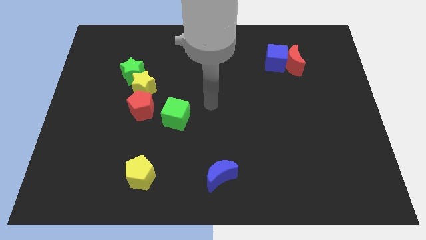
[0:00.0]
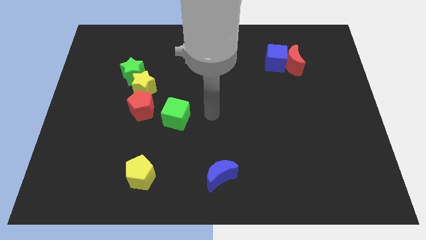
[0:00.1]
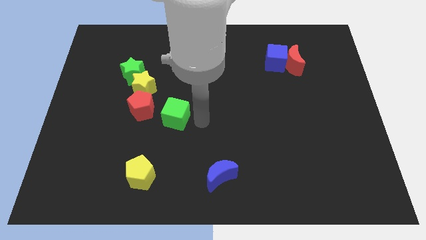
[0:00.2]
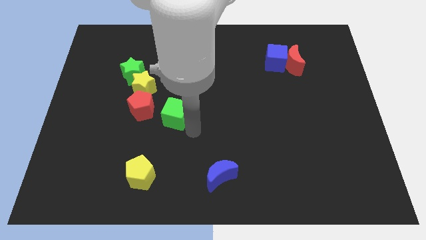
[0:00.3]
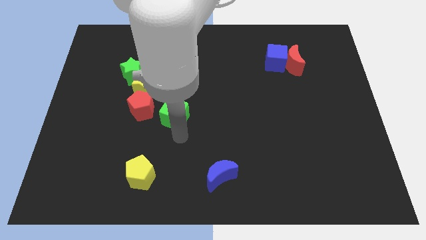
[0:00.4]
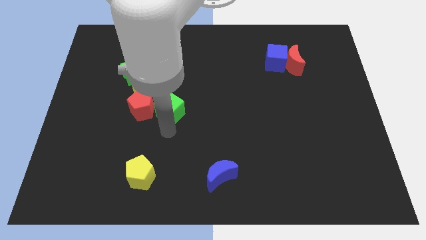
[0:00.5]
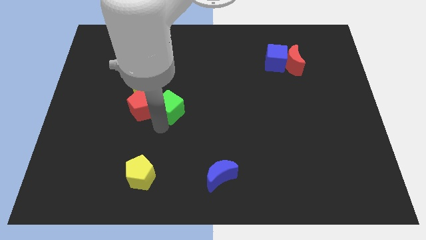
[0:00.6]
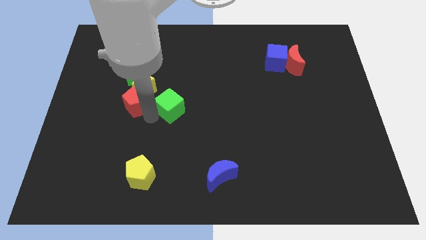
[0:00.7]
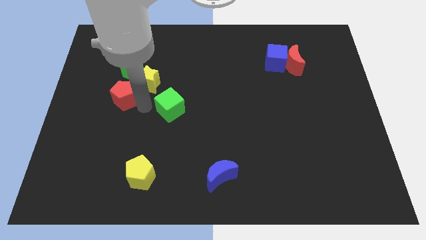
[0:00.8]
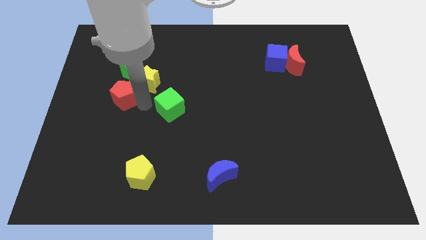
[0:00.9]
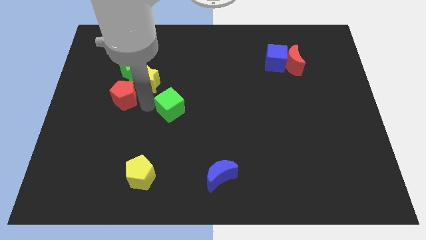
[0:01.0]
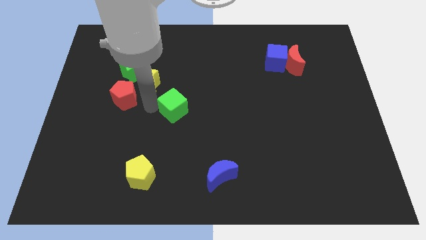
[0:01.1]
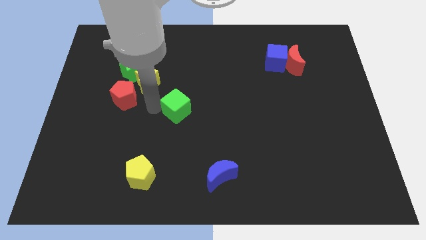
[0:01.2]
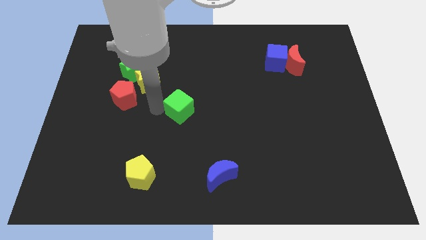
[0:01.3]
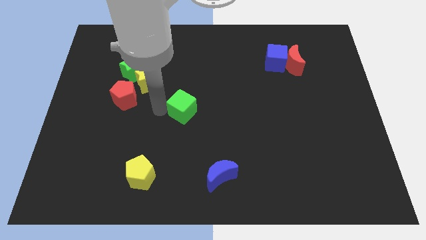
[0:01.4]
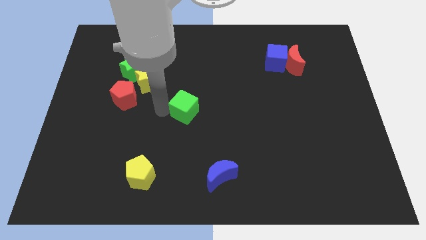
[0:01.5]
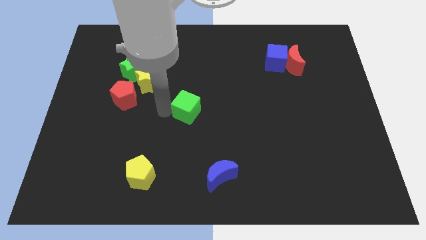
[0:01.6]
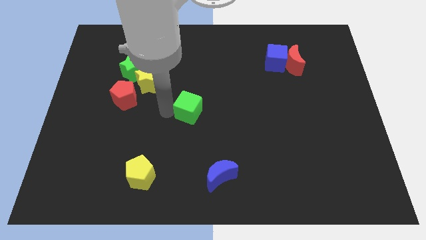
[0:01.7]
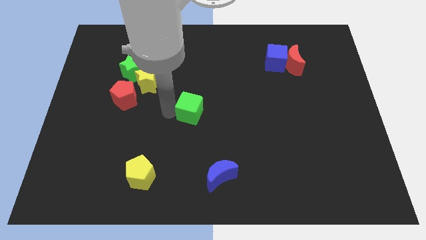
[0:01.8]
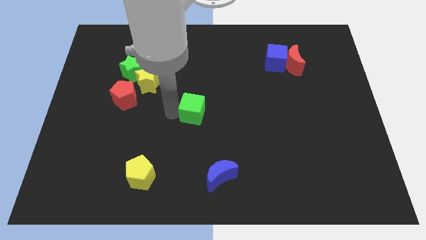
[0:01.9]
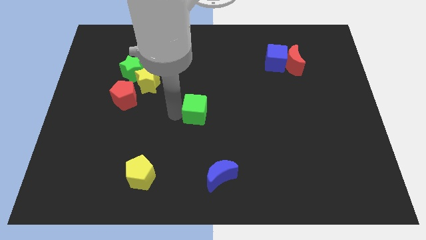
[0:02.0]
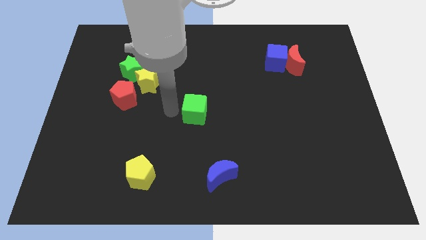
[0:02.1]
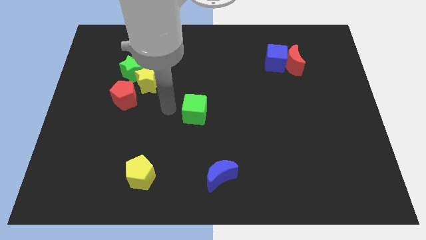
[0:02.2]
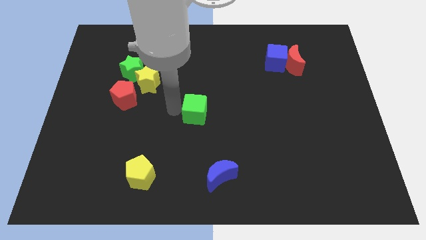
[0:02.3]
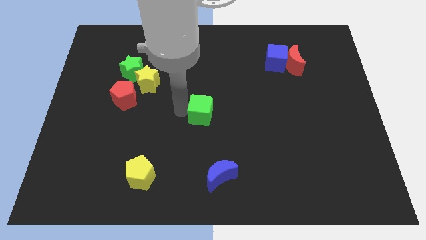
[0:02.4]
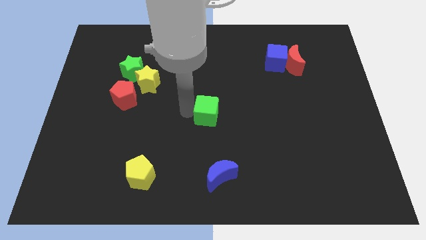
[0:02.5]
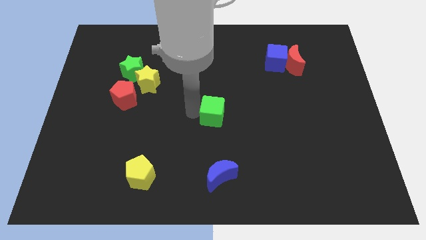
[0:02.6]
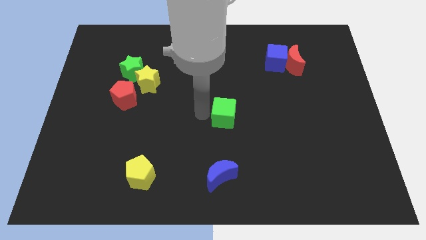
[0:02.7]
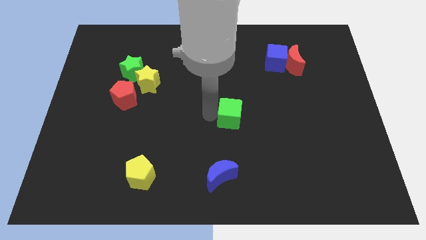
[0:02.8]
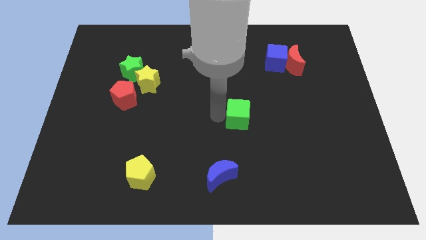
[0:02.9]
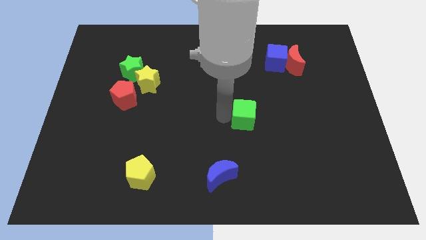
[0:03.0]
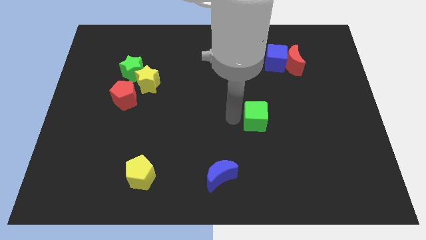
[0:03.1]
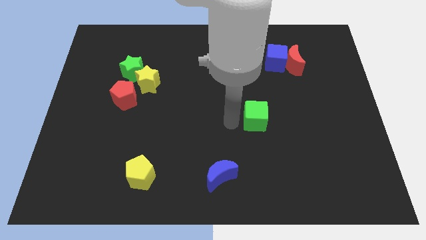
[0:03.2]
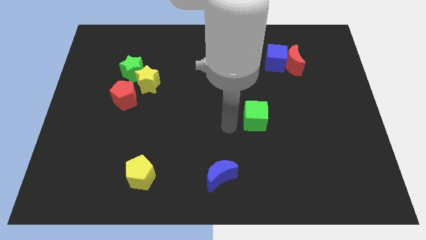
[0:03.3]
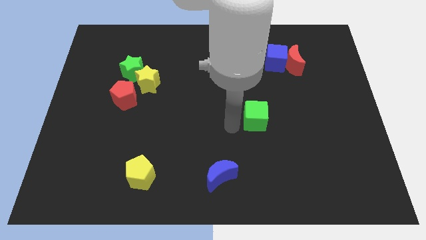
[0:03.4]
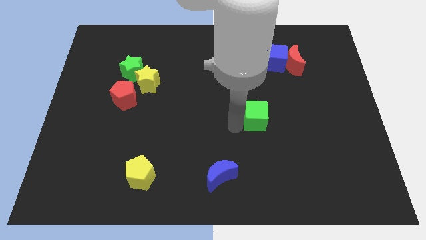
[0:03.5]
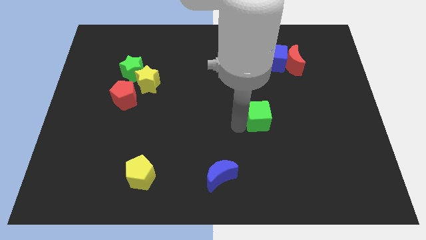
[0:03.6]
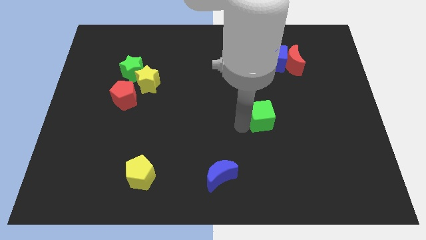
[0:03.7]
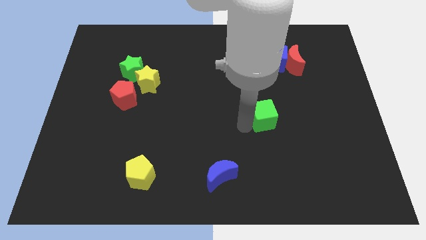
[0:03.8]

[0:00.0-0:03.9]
move the green cube right

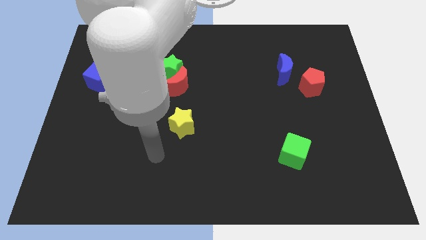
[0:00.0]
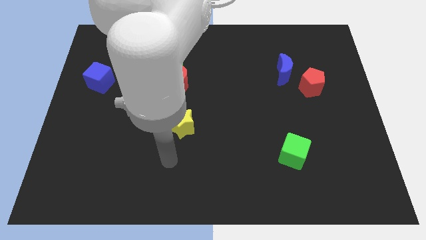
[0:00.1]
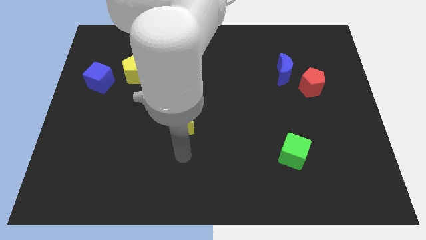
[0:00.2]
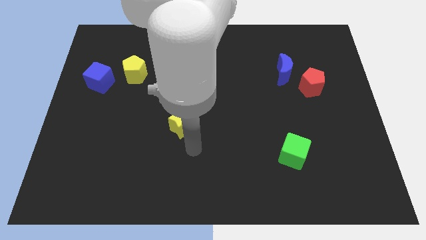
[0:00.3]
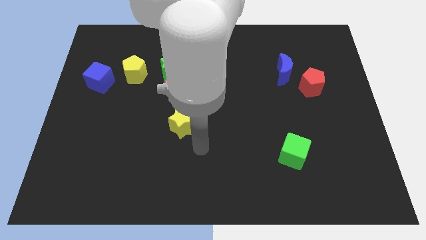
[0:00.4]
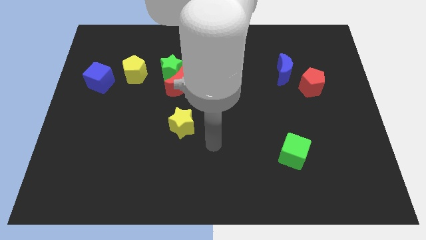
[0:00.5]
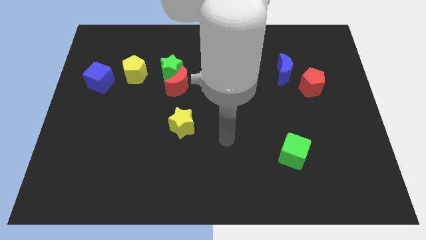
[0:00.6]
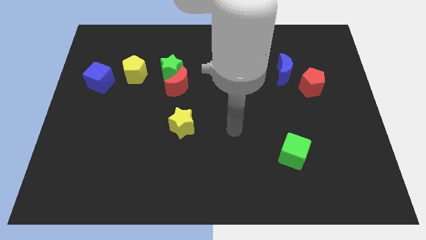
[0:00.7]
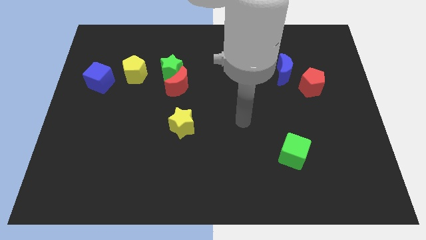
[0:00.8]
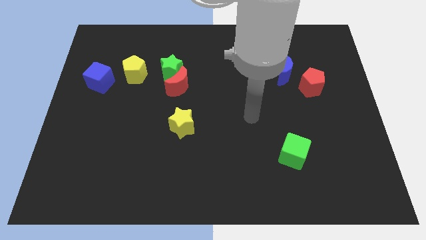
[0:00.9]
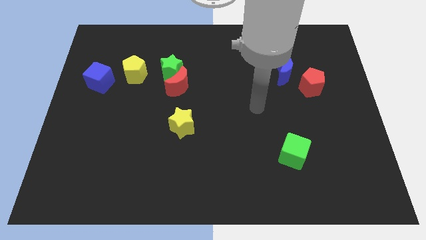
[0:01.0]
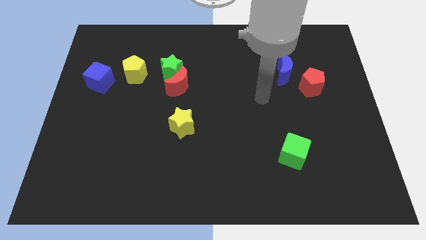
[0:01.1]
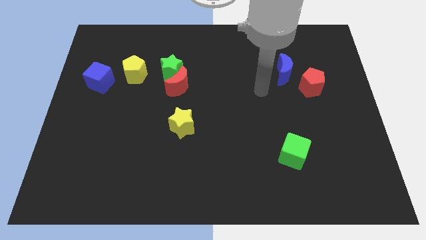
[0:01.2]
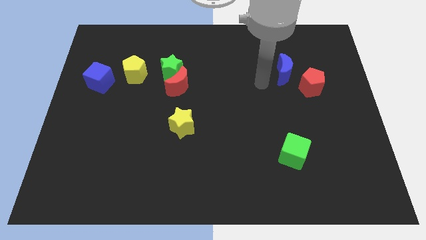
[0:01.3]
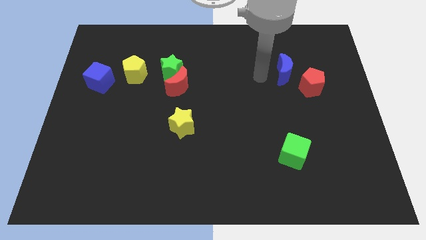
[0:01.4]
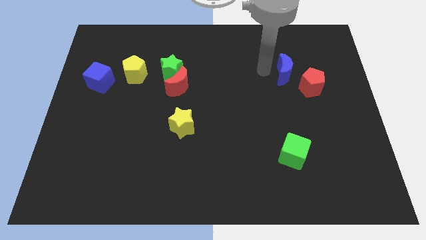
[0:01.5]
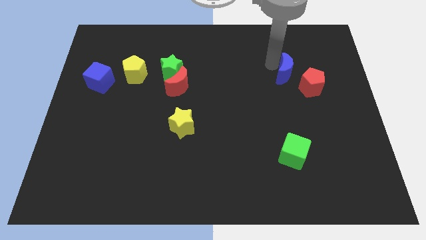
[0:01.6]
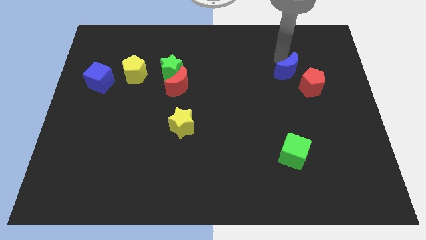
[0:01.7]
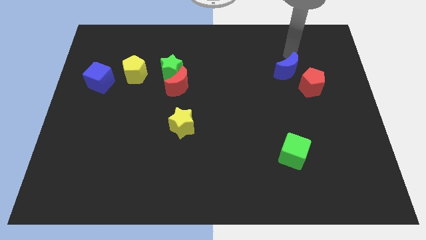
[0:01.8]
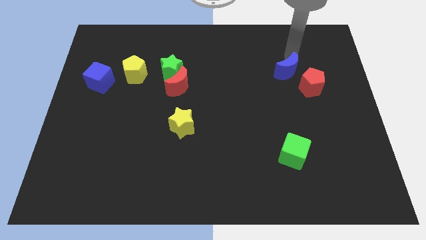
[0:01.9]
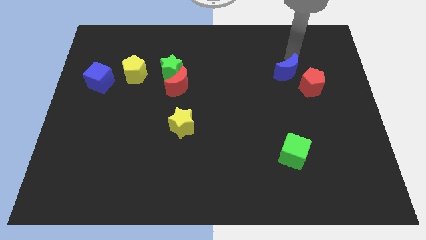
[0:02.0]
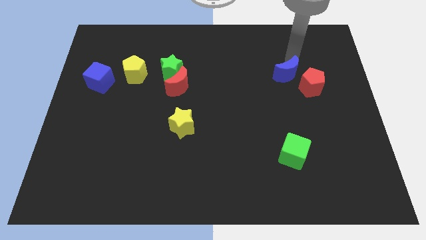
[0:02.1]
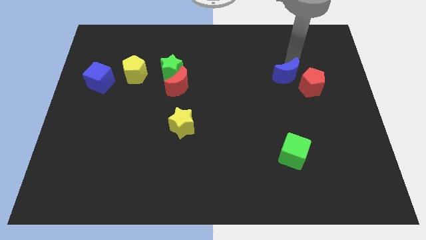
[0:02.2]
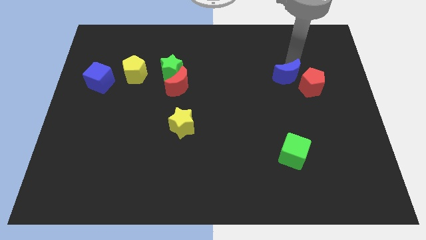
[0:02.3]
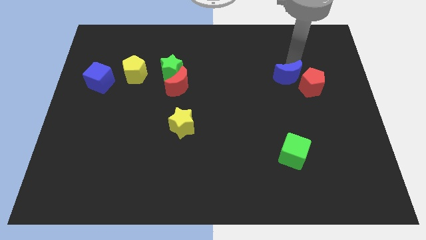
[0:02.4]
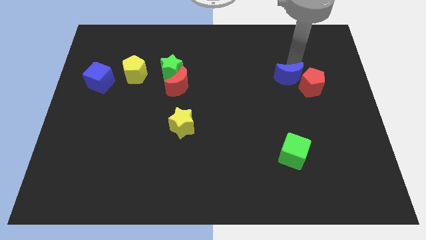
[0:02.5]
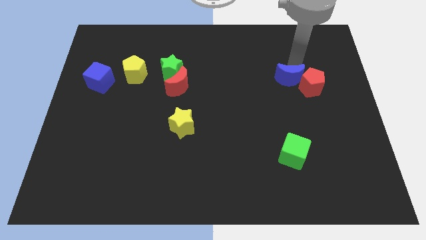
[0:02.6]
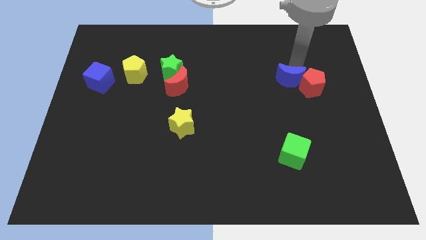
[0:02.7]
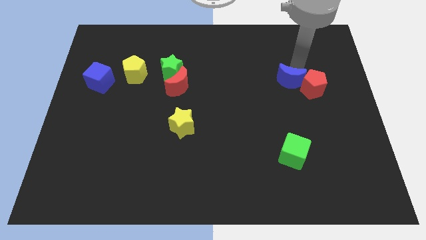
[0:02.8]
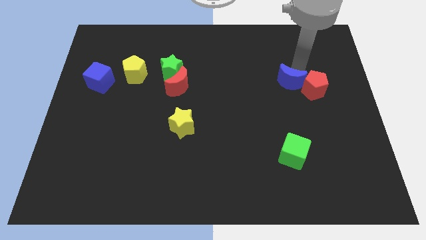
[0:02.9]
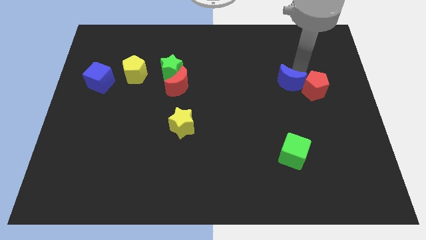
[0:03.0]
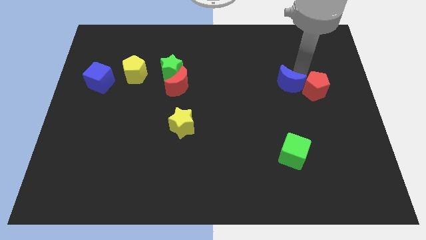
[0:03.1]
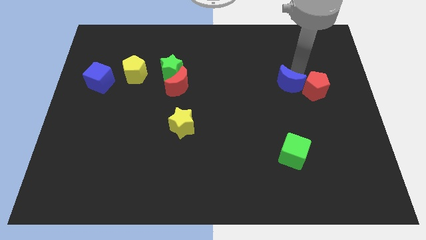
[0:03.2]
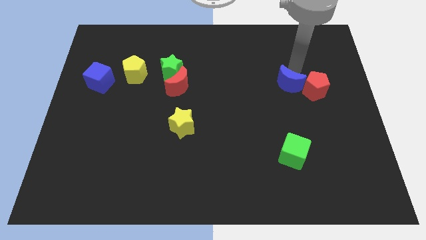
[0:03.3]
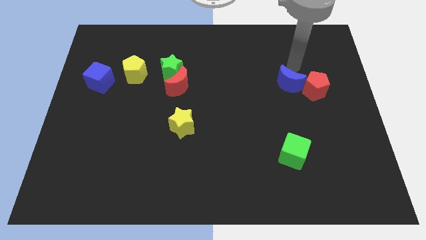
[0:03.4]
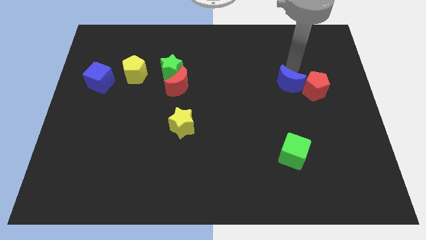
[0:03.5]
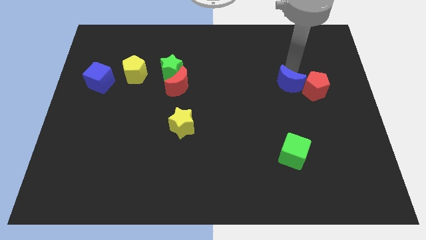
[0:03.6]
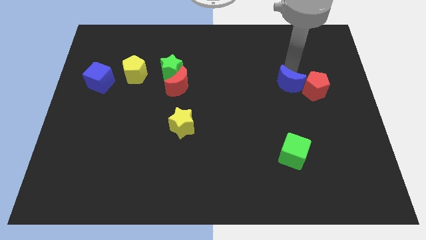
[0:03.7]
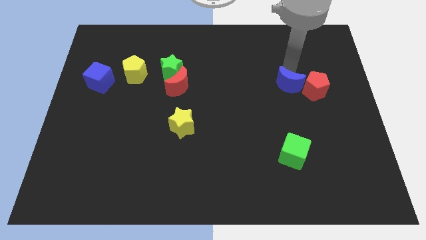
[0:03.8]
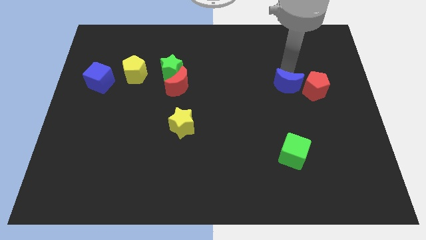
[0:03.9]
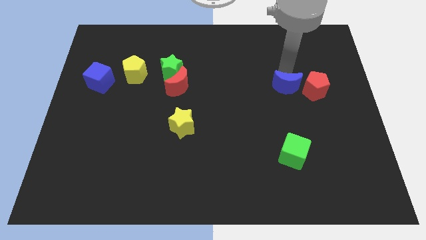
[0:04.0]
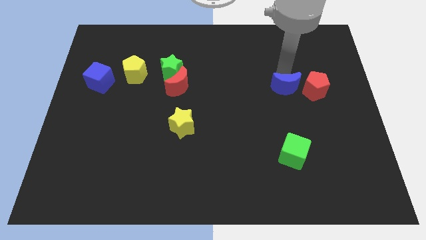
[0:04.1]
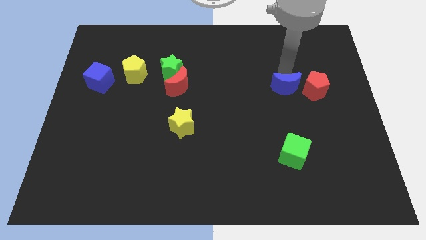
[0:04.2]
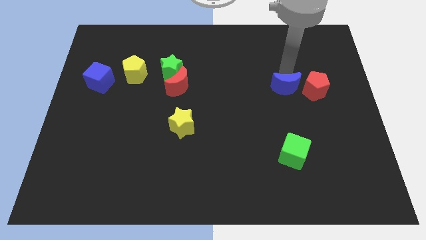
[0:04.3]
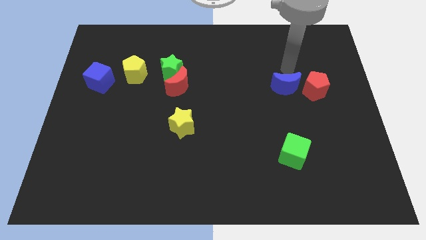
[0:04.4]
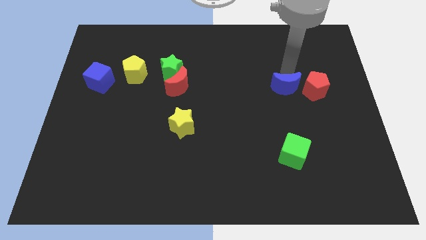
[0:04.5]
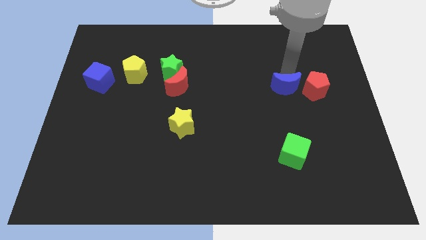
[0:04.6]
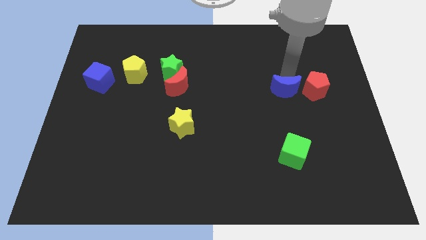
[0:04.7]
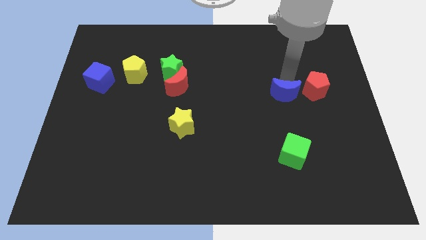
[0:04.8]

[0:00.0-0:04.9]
slightly push the blue moon downwards
